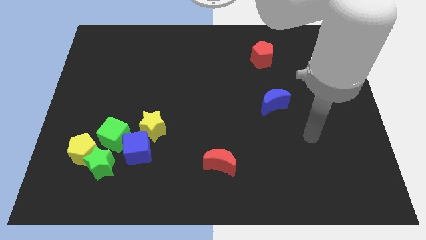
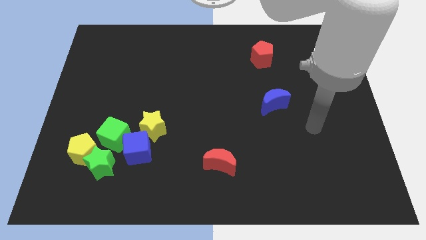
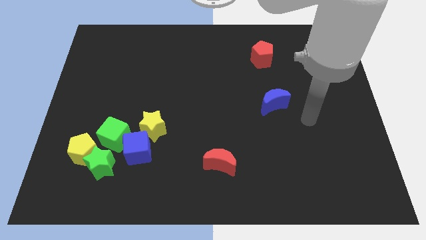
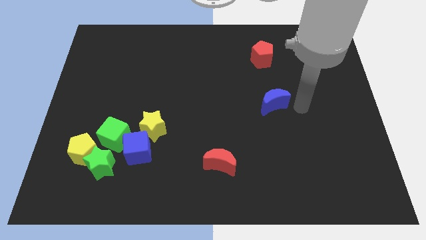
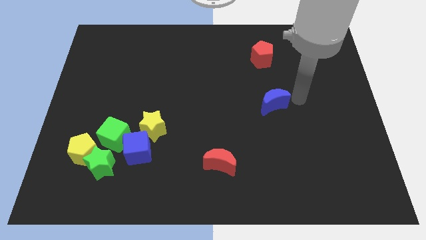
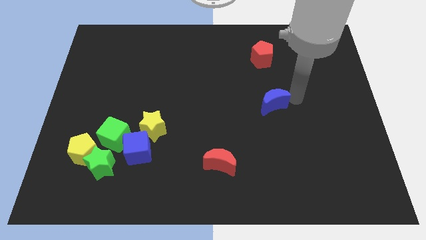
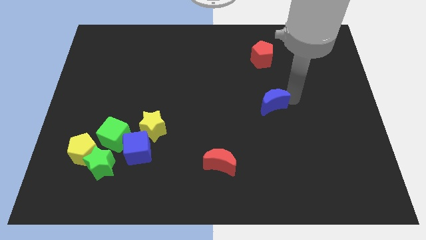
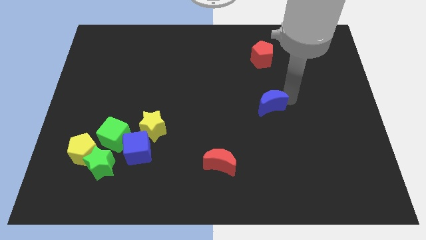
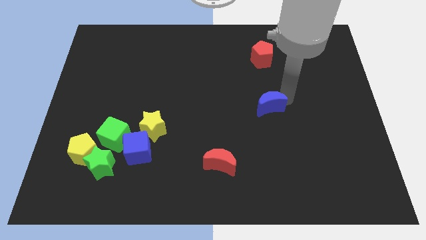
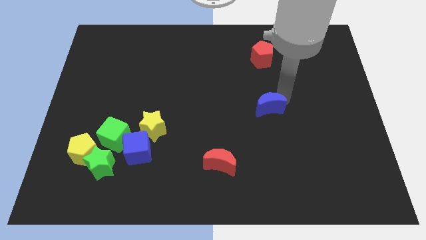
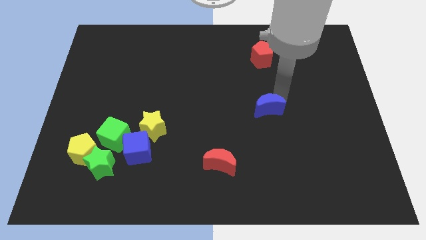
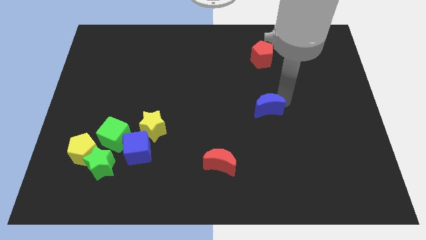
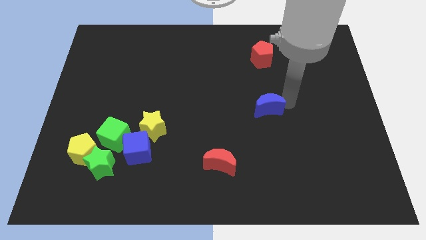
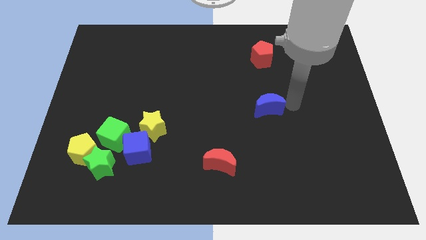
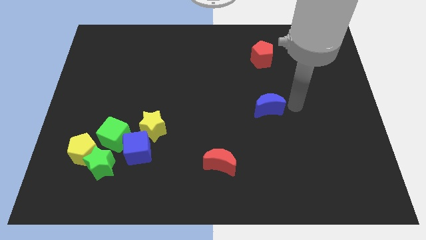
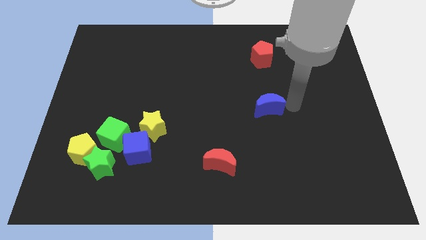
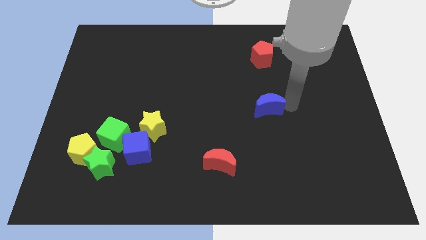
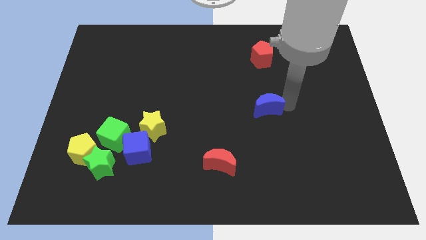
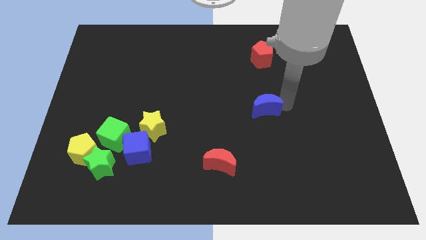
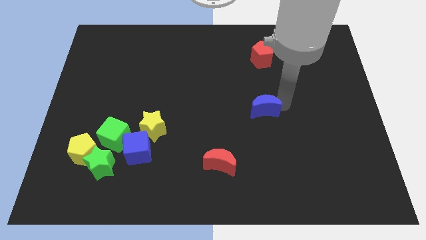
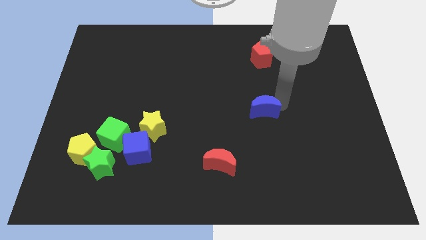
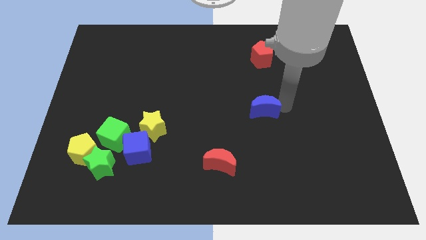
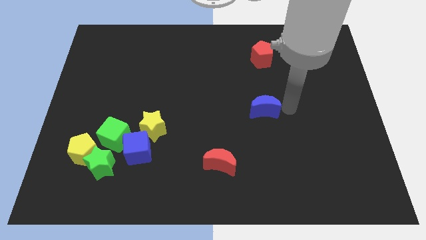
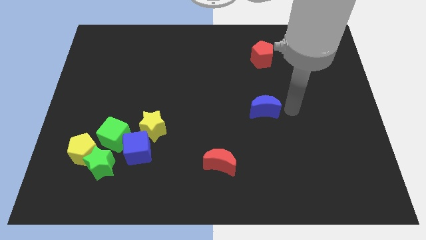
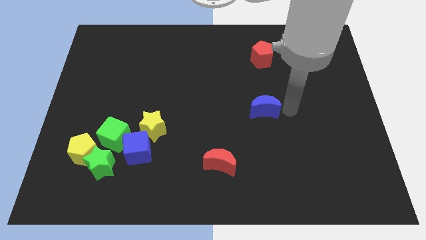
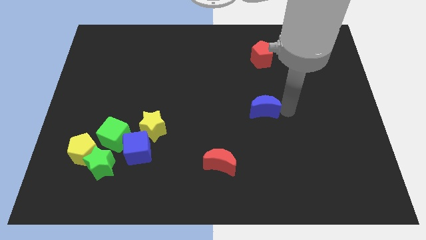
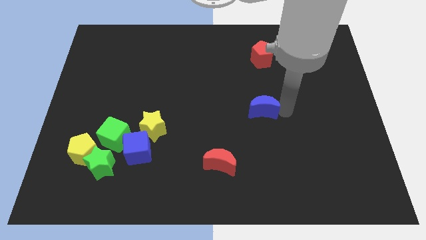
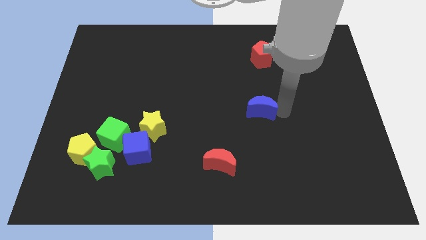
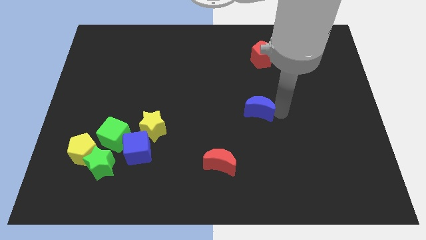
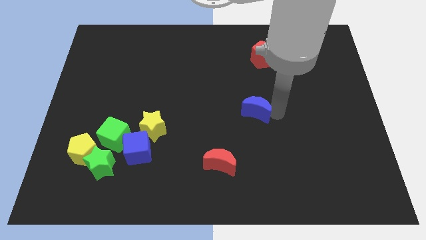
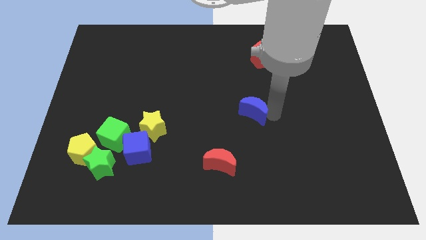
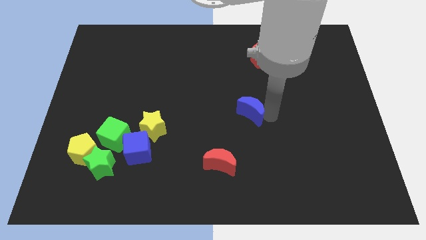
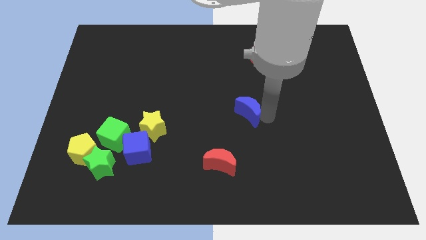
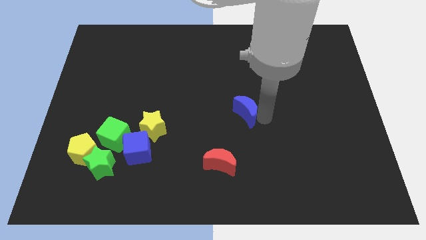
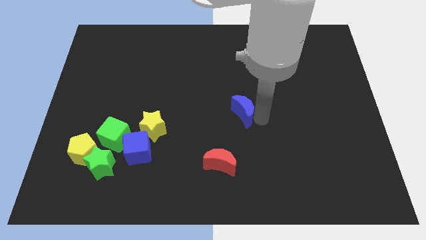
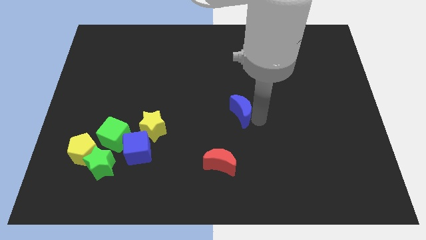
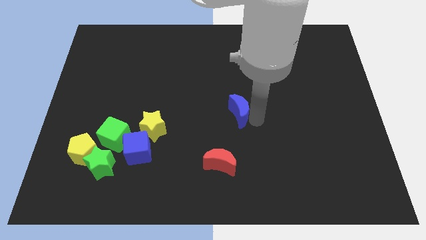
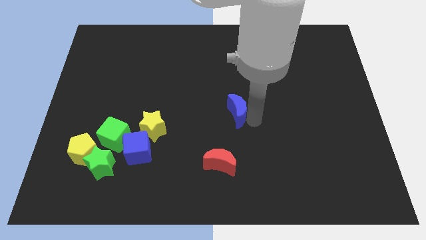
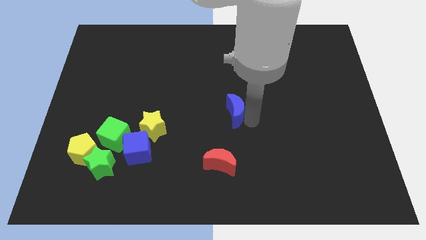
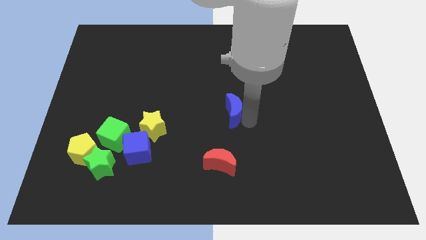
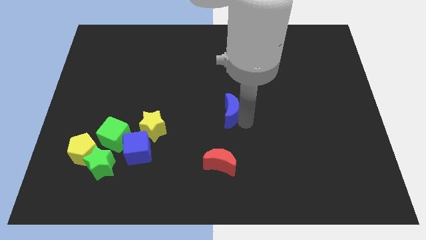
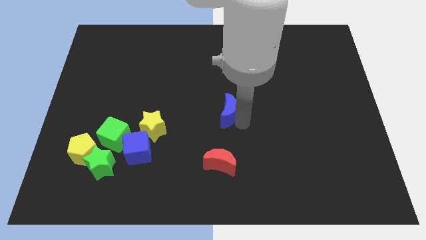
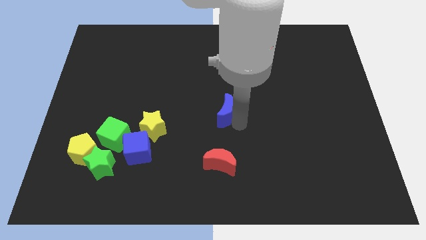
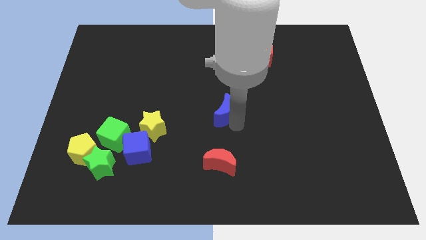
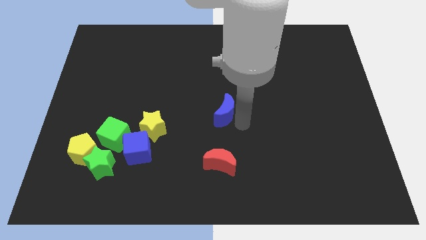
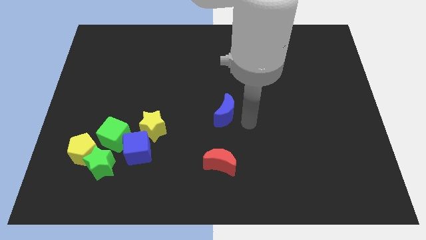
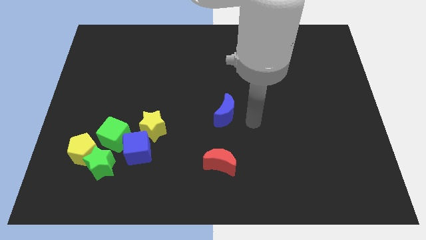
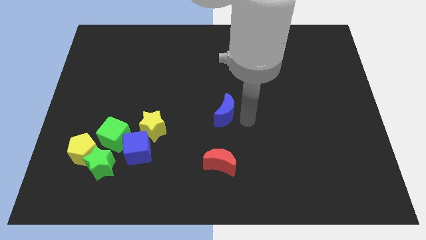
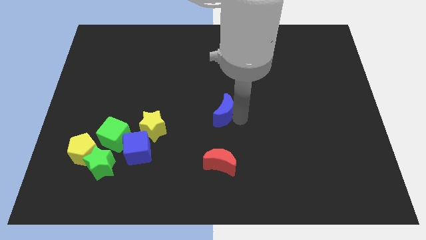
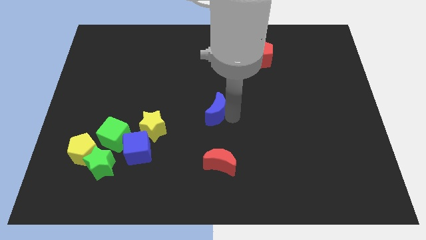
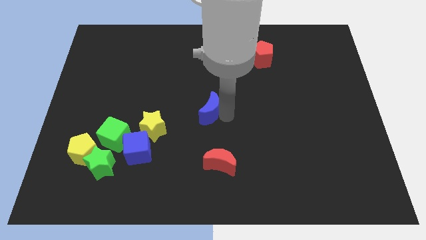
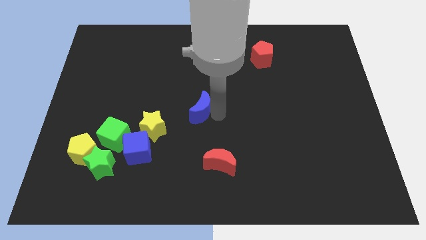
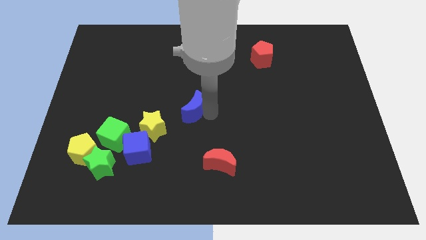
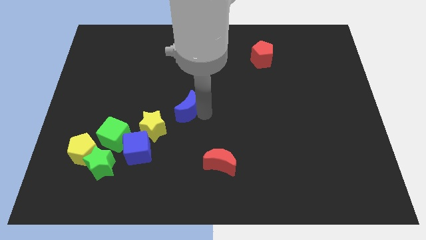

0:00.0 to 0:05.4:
move the blue moon left

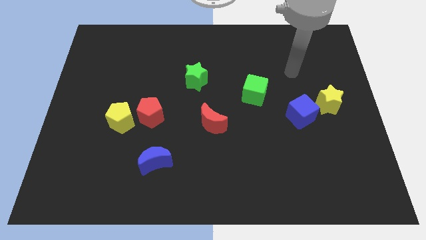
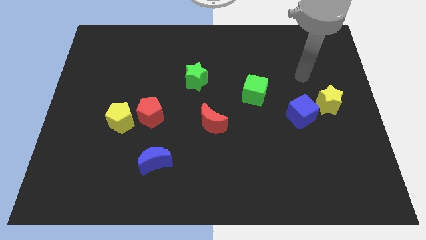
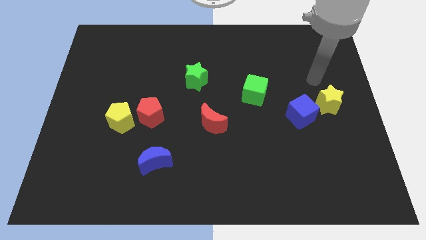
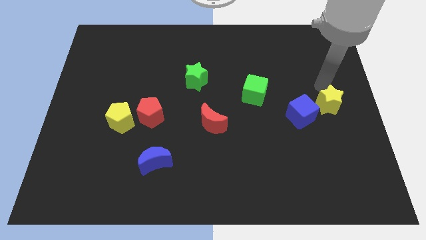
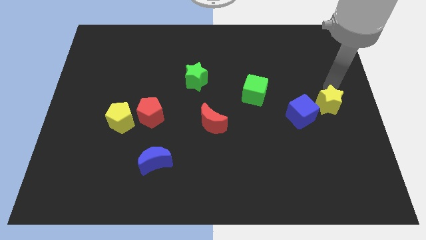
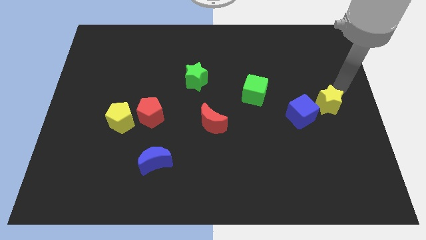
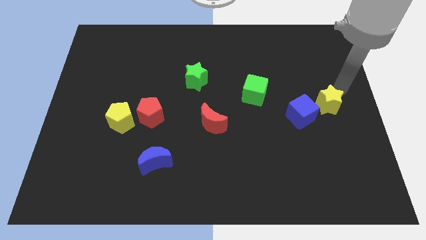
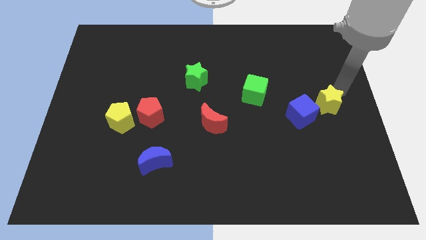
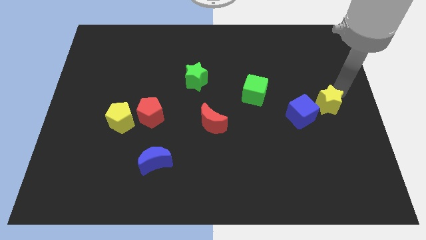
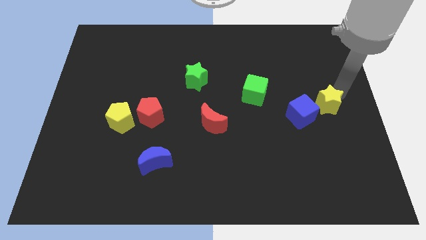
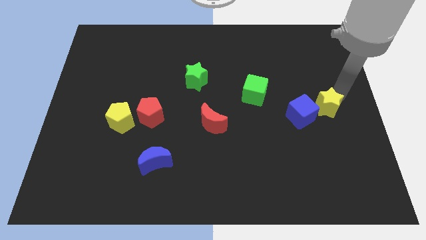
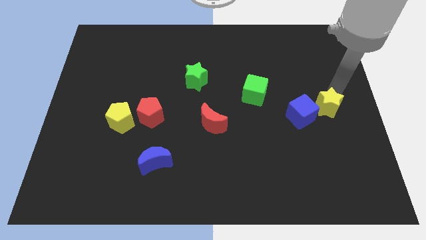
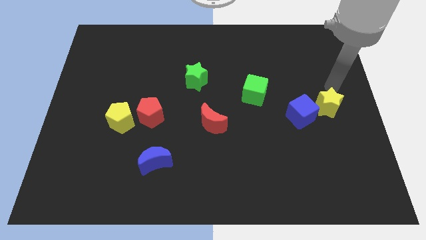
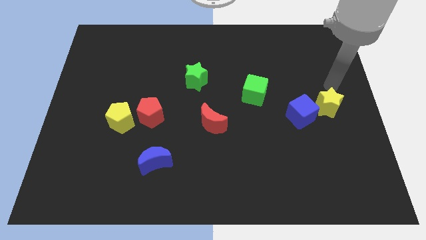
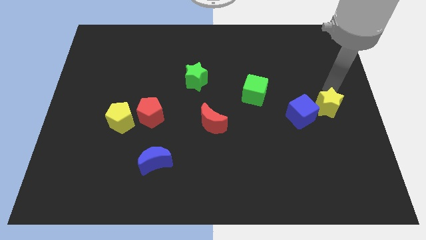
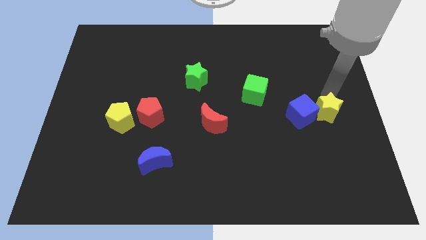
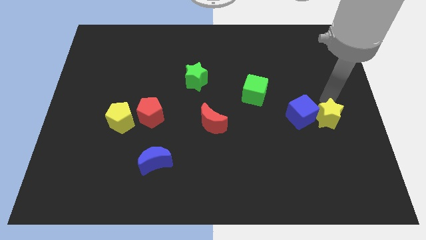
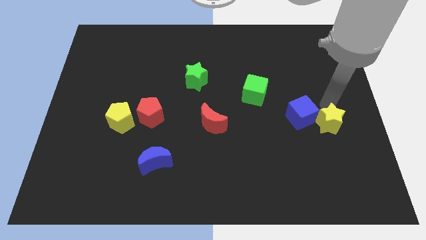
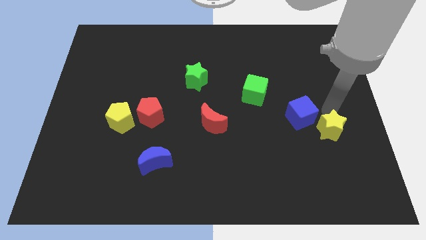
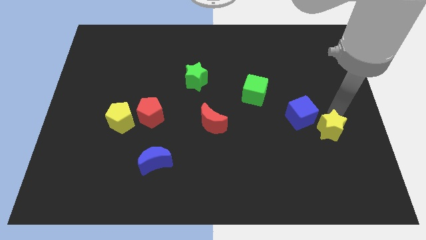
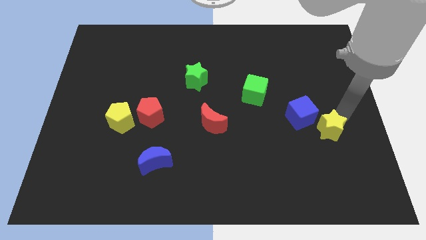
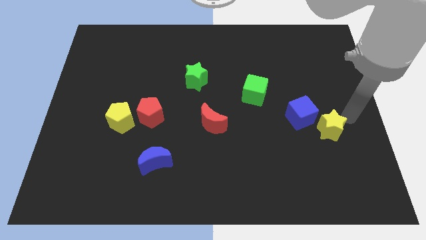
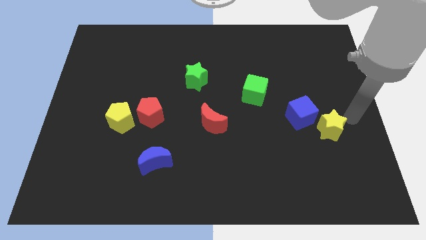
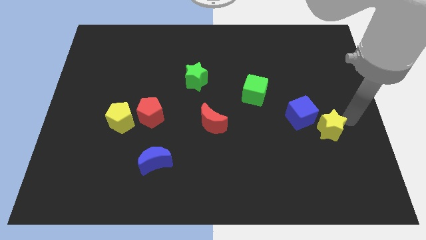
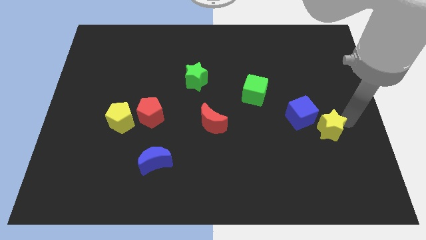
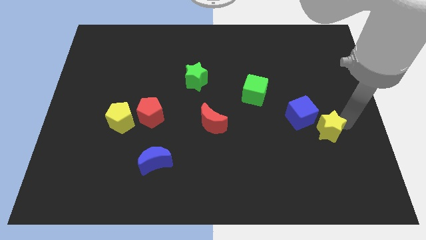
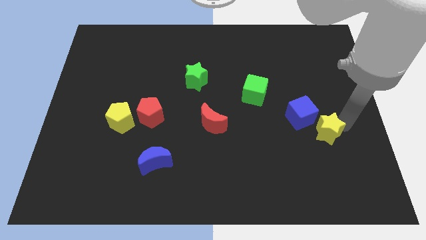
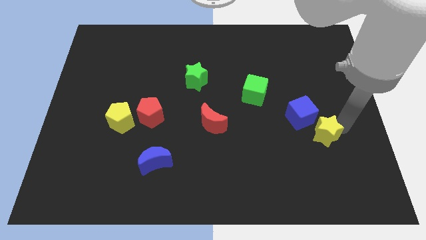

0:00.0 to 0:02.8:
slide the yellow star downwards and left slightly
